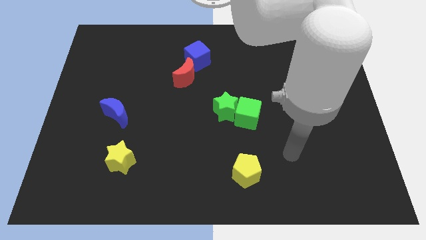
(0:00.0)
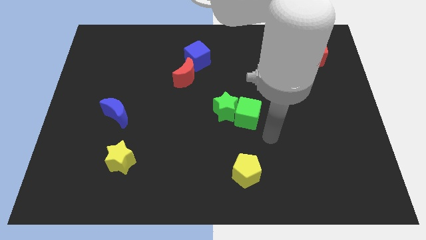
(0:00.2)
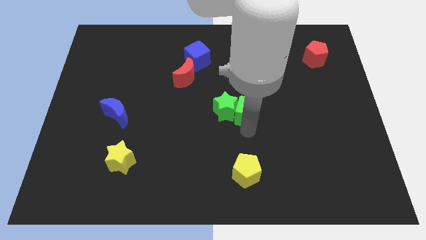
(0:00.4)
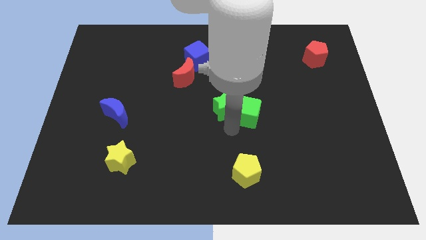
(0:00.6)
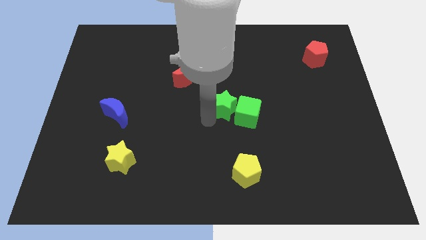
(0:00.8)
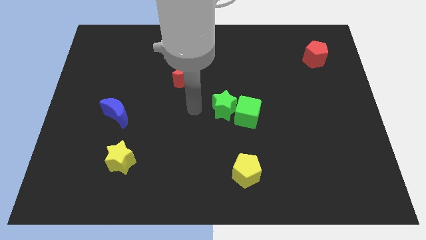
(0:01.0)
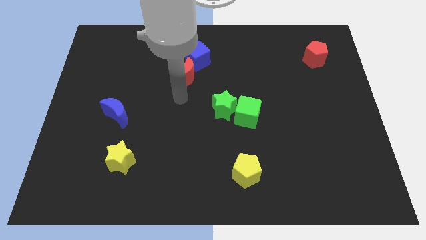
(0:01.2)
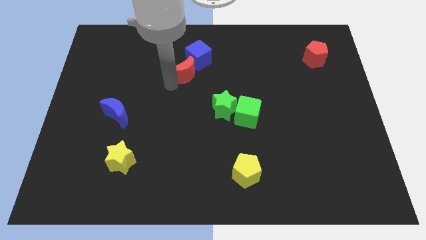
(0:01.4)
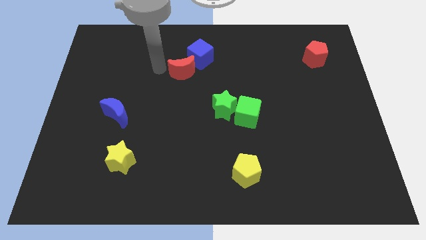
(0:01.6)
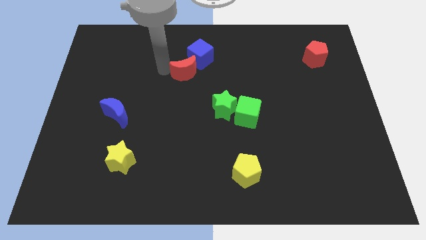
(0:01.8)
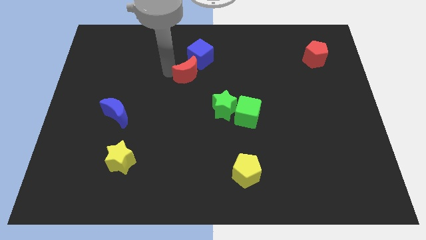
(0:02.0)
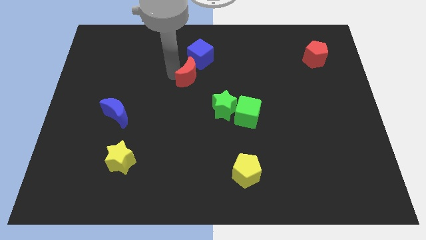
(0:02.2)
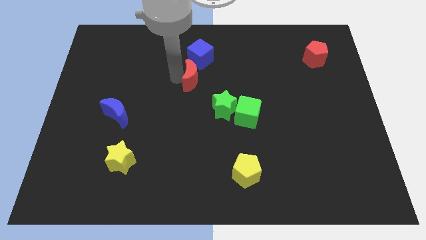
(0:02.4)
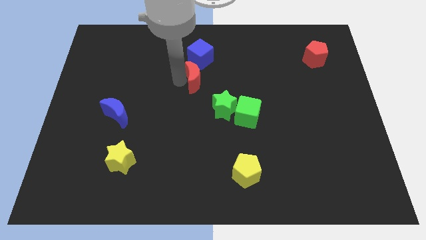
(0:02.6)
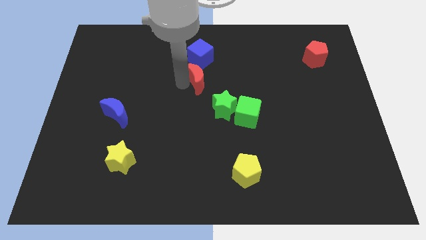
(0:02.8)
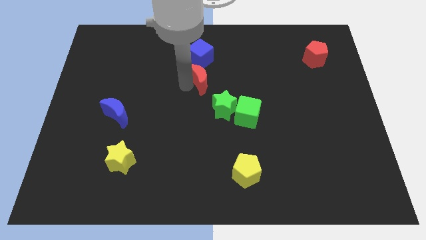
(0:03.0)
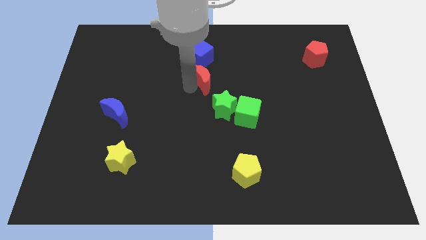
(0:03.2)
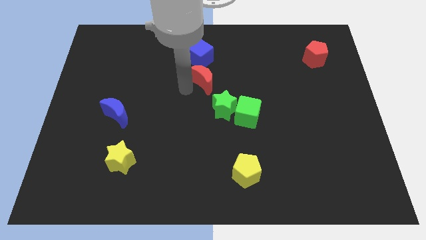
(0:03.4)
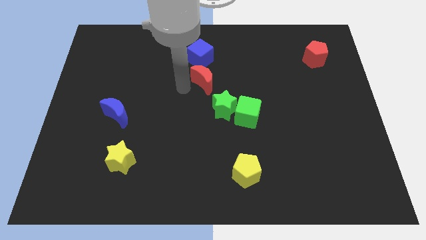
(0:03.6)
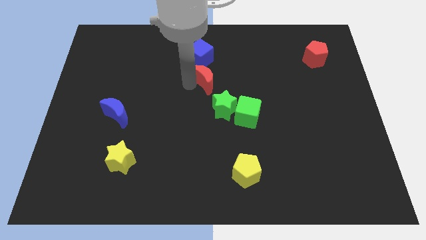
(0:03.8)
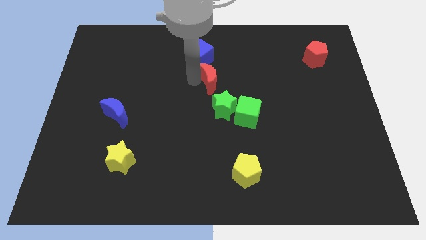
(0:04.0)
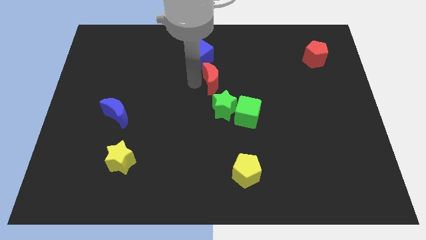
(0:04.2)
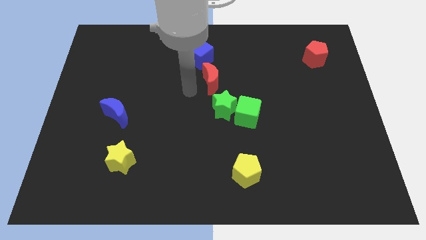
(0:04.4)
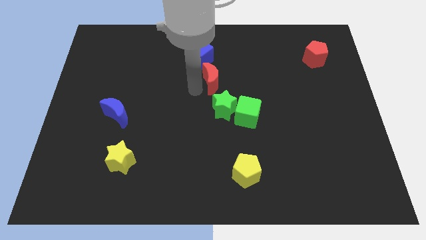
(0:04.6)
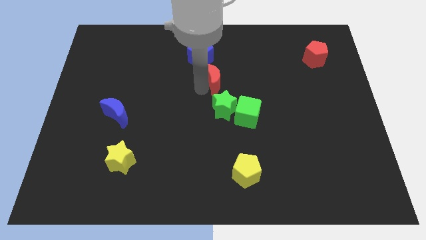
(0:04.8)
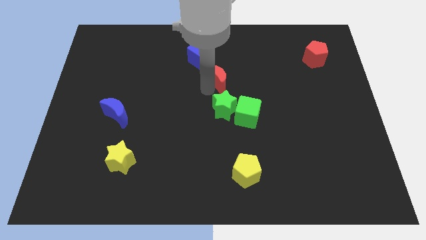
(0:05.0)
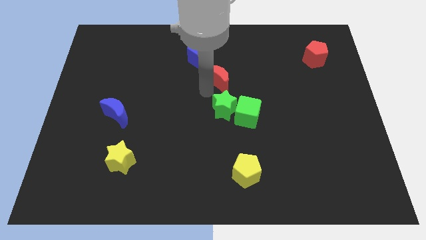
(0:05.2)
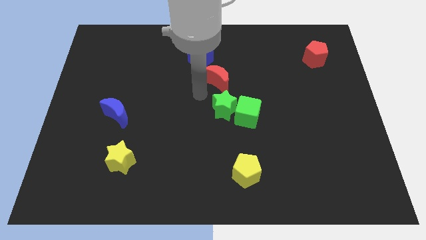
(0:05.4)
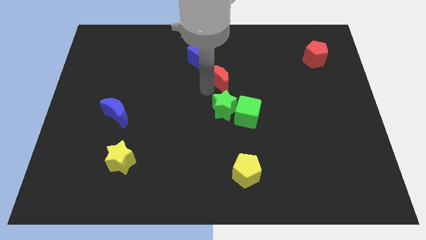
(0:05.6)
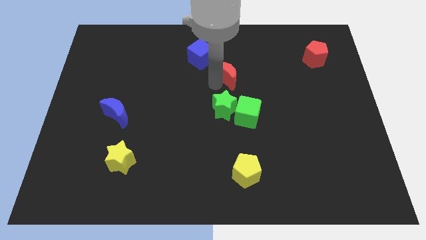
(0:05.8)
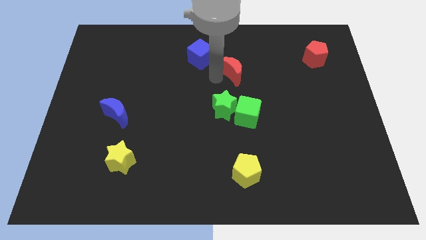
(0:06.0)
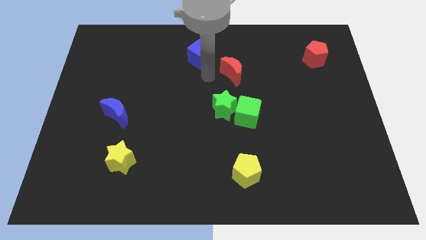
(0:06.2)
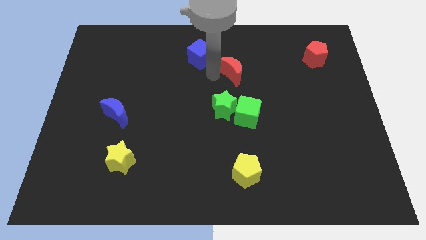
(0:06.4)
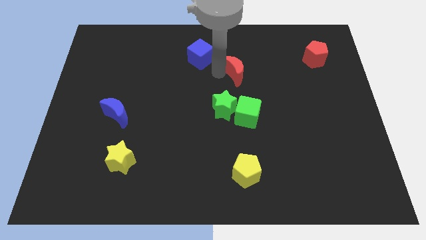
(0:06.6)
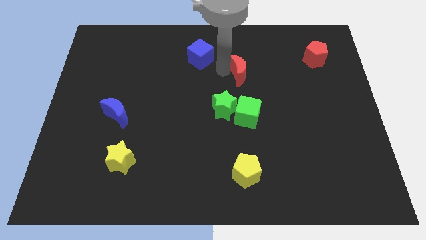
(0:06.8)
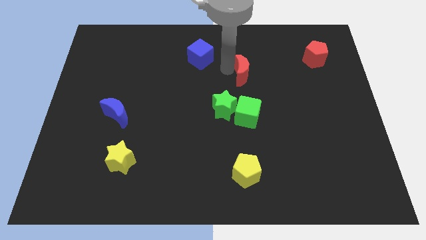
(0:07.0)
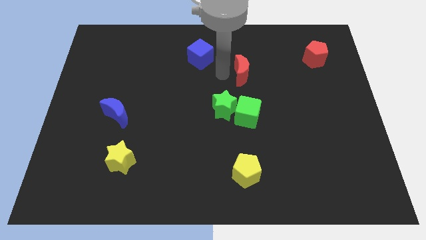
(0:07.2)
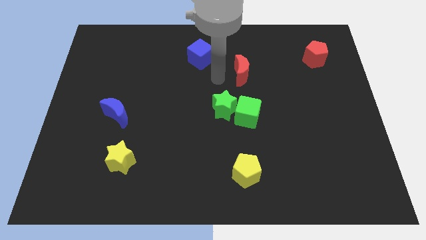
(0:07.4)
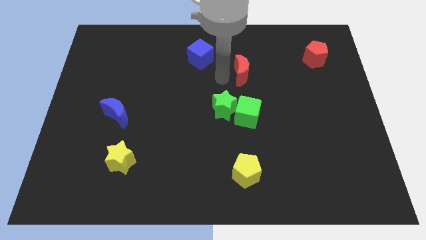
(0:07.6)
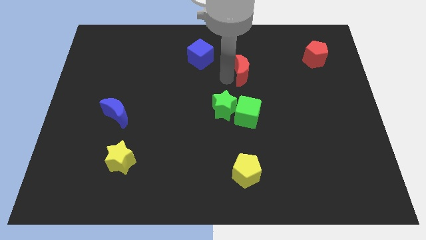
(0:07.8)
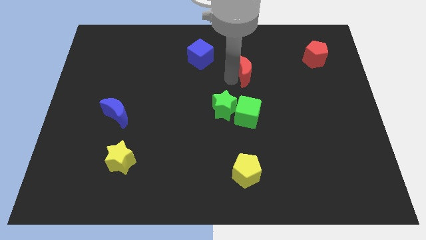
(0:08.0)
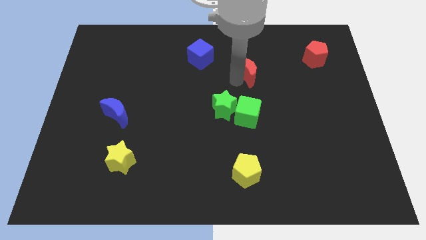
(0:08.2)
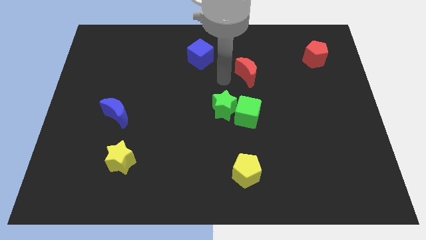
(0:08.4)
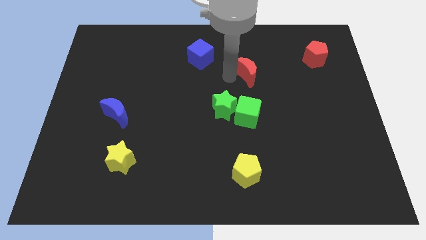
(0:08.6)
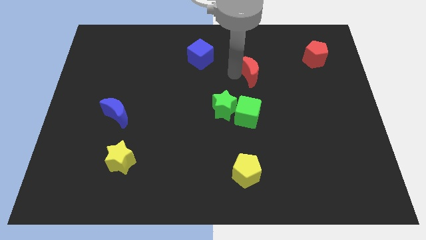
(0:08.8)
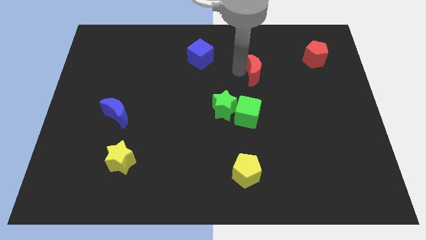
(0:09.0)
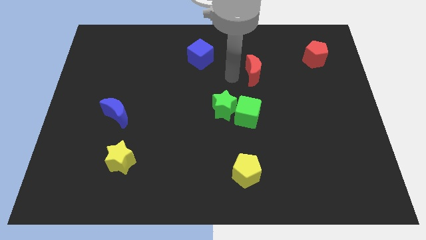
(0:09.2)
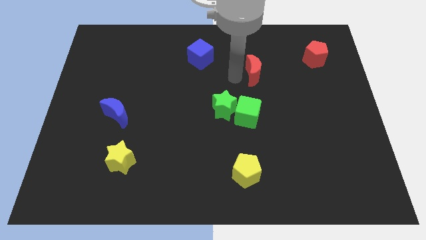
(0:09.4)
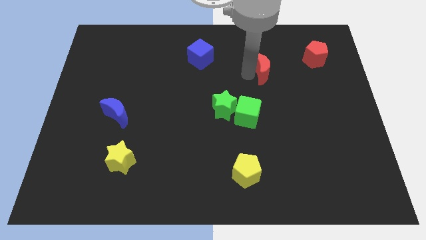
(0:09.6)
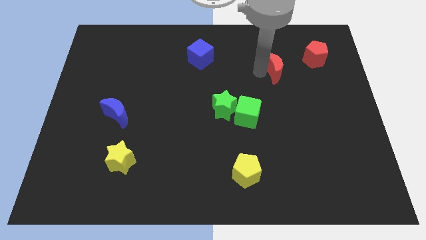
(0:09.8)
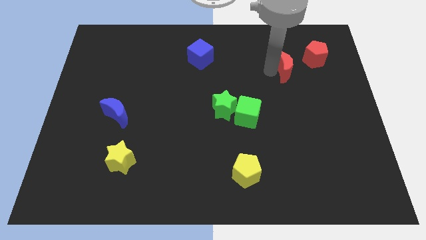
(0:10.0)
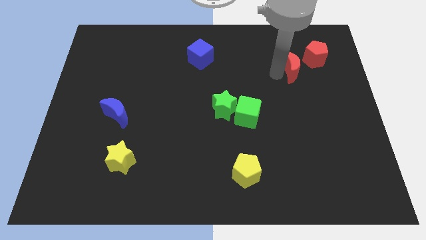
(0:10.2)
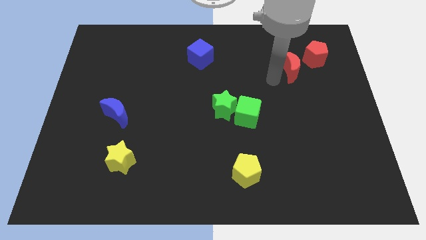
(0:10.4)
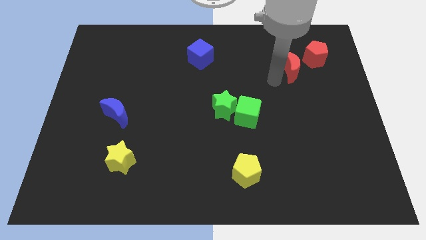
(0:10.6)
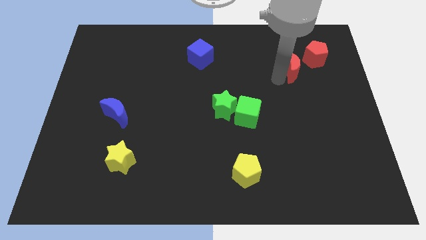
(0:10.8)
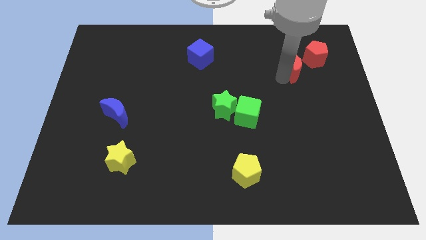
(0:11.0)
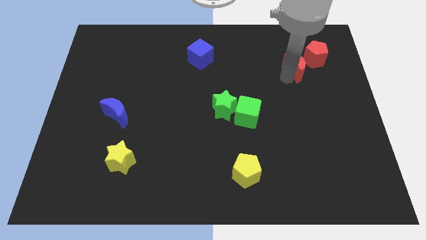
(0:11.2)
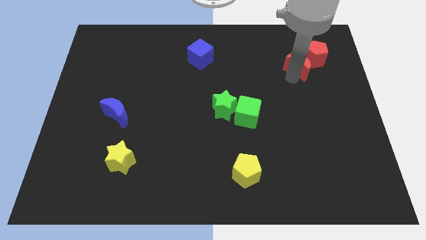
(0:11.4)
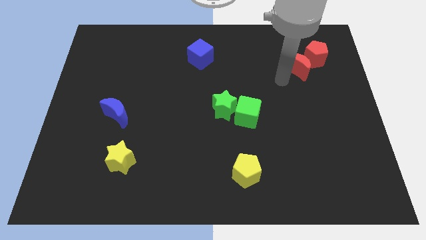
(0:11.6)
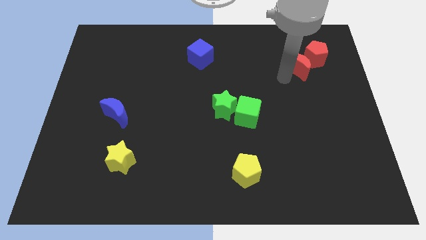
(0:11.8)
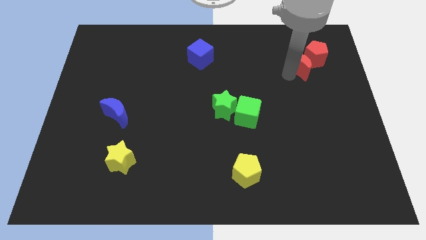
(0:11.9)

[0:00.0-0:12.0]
move the red moon towards the red pentagon

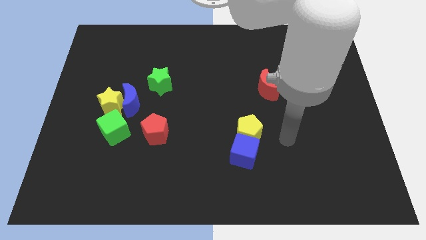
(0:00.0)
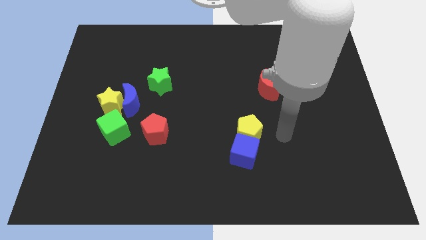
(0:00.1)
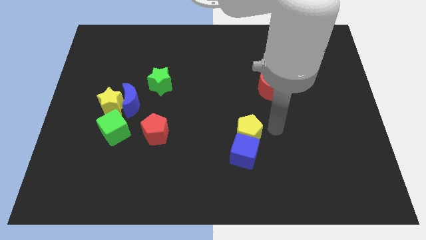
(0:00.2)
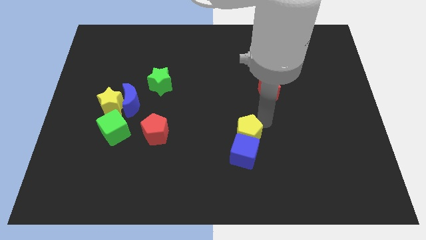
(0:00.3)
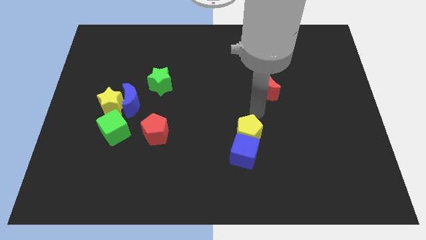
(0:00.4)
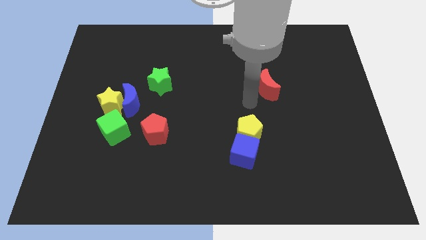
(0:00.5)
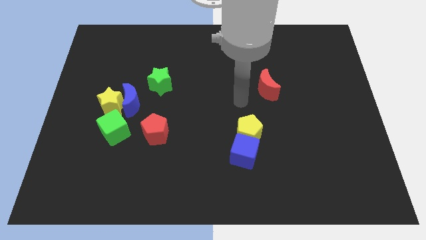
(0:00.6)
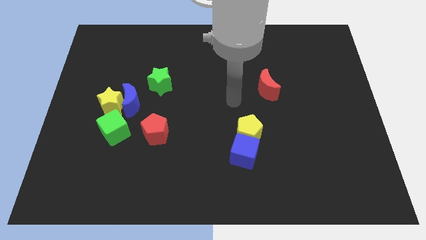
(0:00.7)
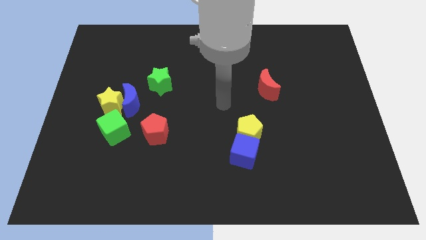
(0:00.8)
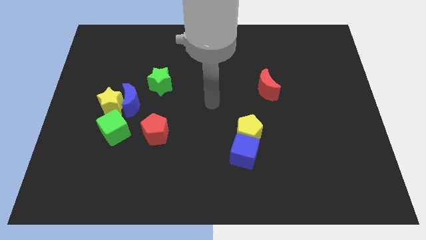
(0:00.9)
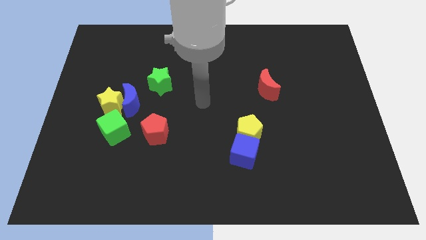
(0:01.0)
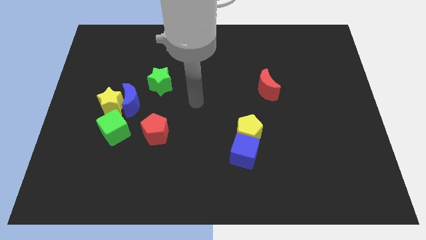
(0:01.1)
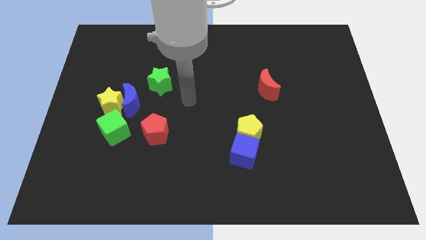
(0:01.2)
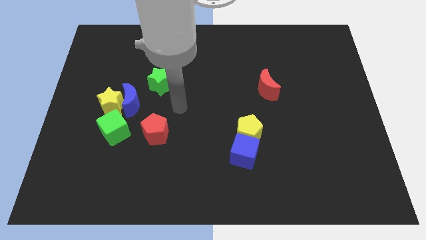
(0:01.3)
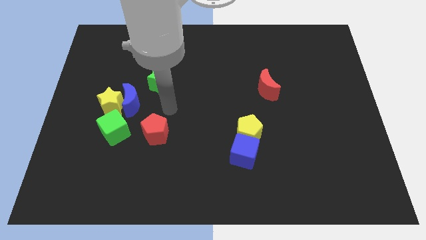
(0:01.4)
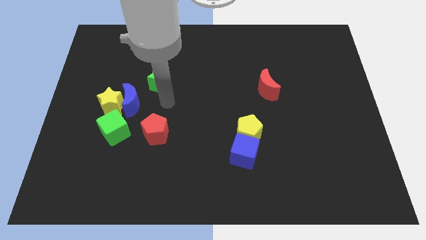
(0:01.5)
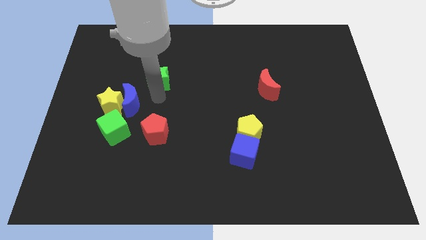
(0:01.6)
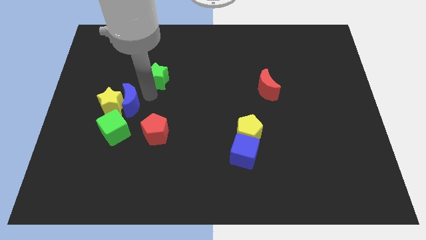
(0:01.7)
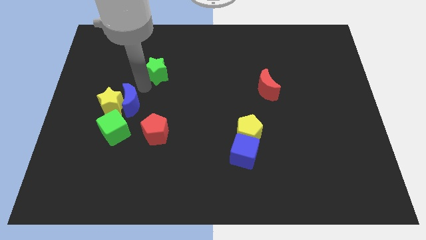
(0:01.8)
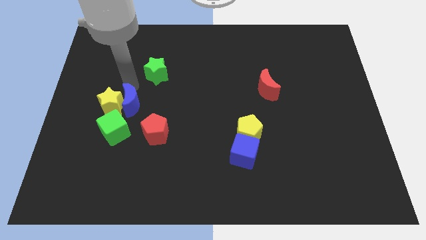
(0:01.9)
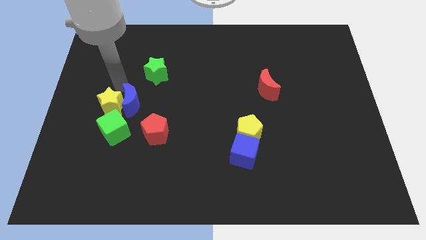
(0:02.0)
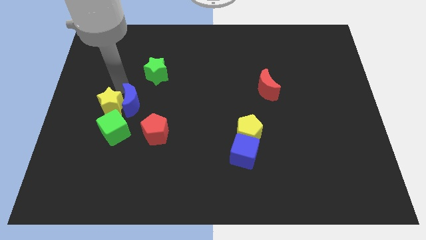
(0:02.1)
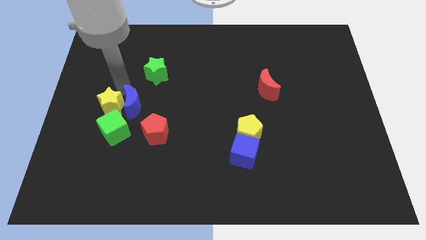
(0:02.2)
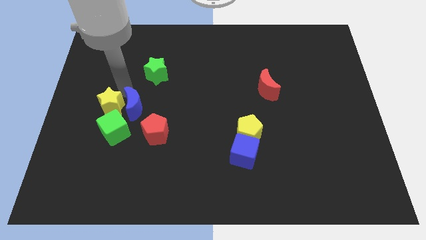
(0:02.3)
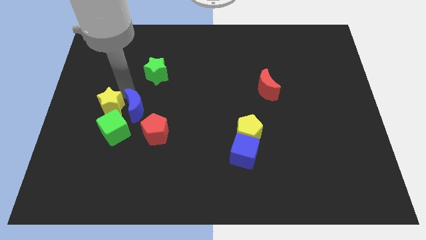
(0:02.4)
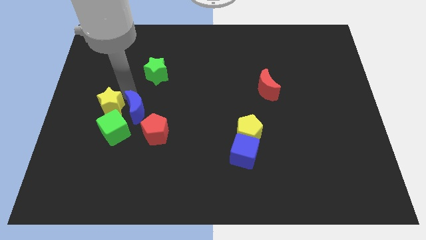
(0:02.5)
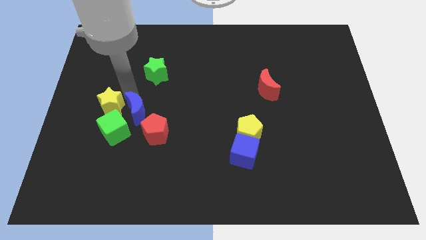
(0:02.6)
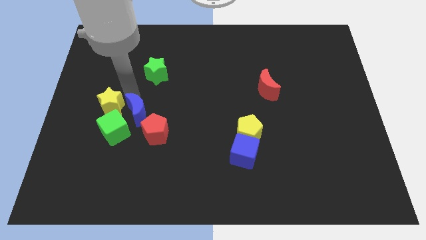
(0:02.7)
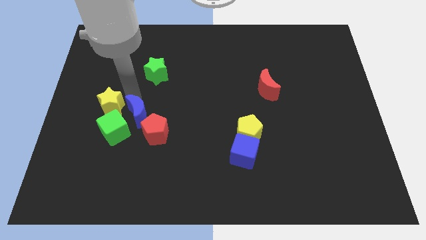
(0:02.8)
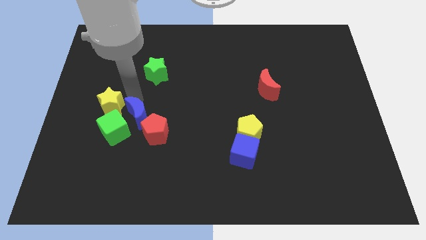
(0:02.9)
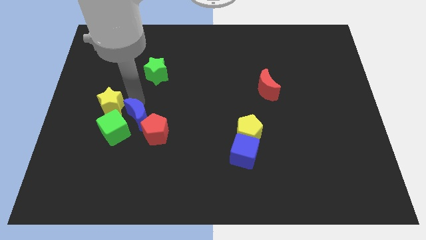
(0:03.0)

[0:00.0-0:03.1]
push the blue moon next to the red pentagon
